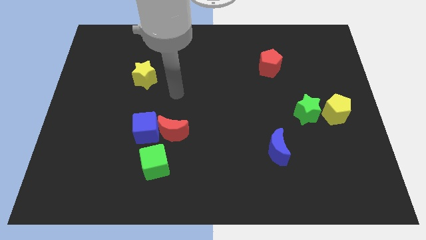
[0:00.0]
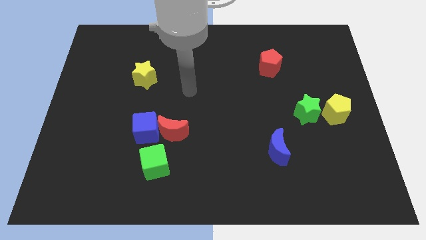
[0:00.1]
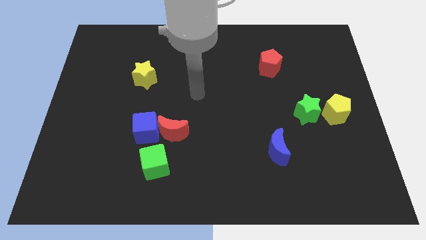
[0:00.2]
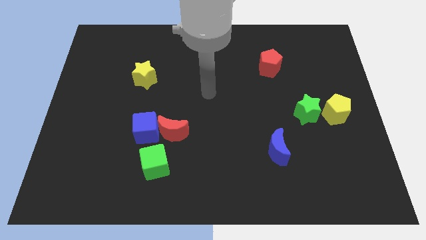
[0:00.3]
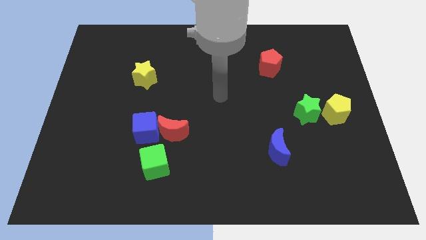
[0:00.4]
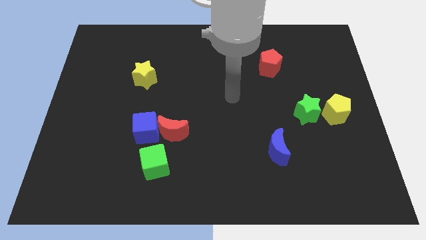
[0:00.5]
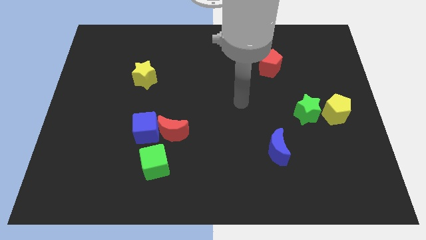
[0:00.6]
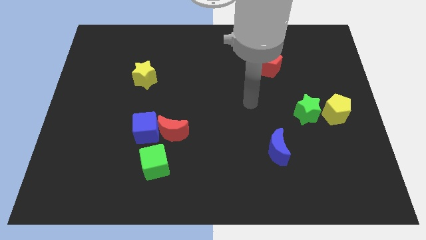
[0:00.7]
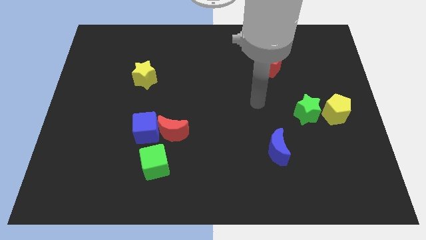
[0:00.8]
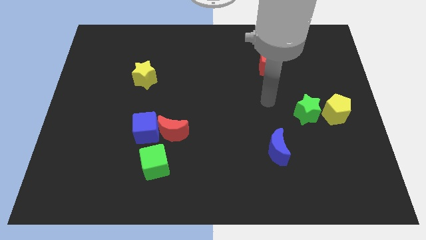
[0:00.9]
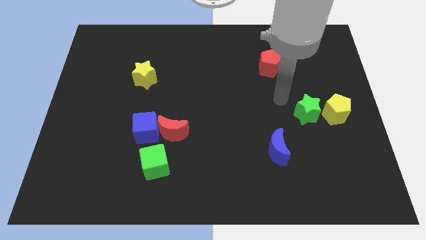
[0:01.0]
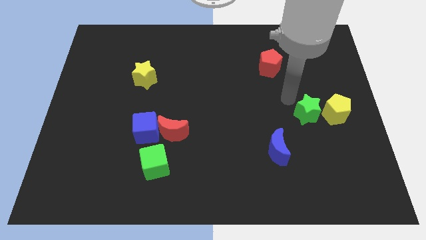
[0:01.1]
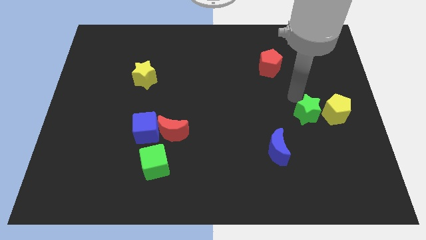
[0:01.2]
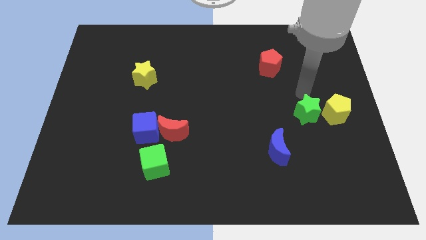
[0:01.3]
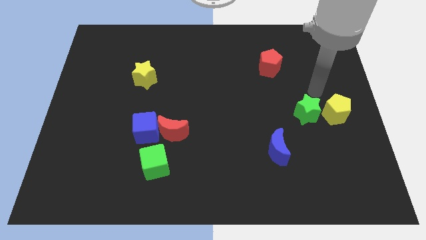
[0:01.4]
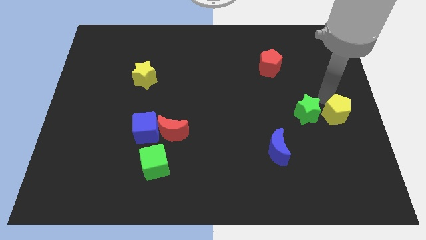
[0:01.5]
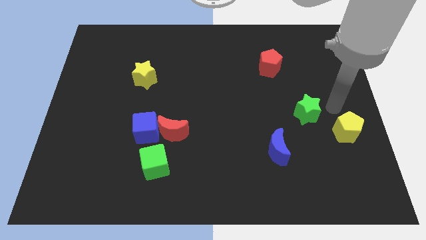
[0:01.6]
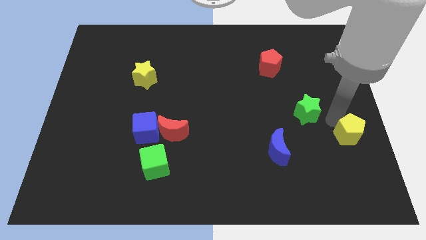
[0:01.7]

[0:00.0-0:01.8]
move the green star away from the yellow pentagon

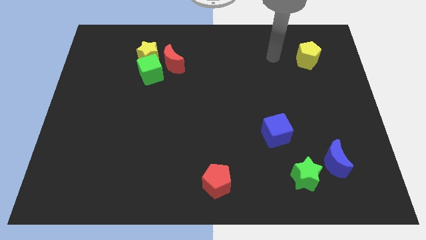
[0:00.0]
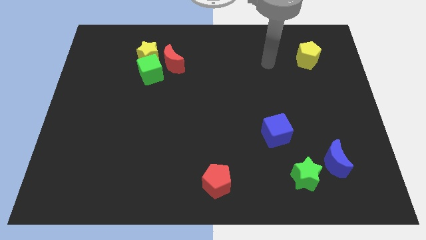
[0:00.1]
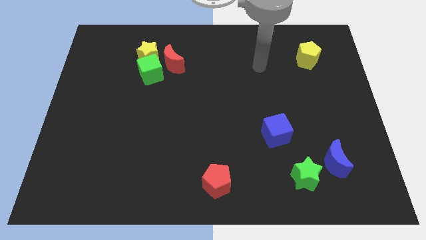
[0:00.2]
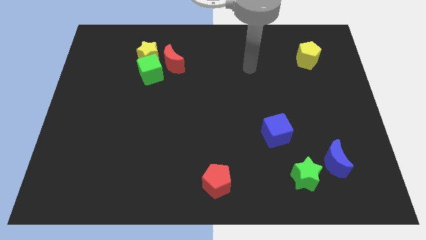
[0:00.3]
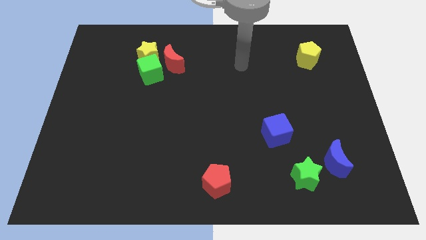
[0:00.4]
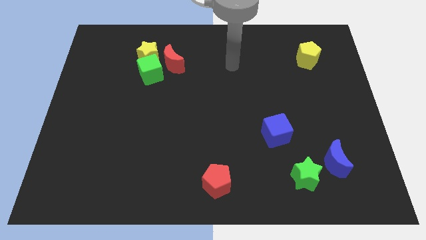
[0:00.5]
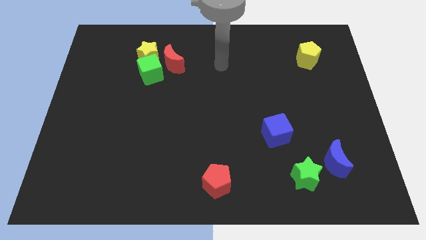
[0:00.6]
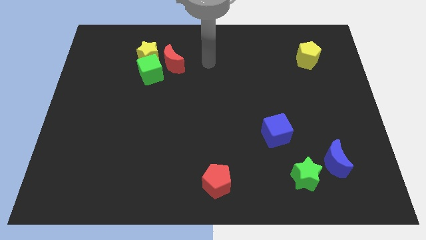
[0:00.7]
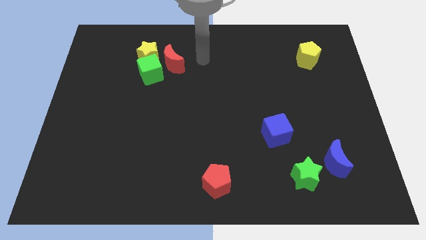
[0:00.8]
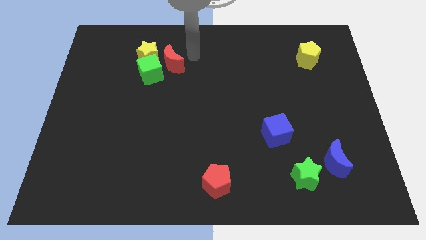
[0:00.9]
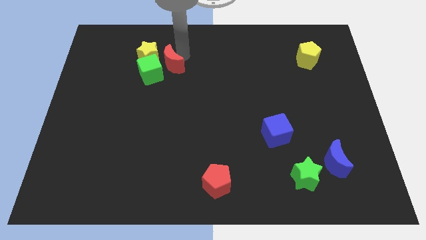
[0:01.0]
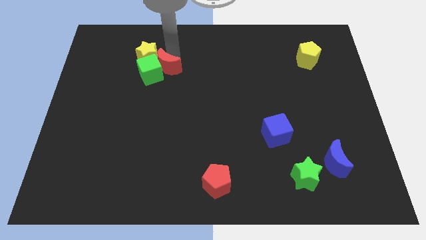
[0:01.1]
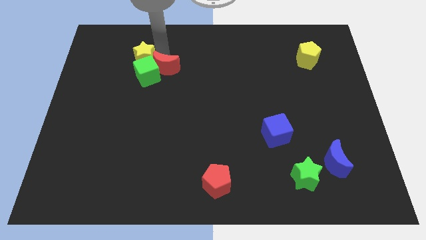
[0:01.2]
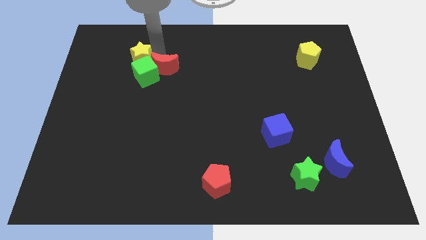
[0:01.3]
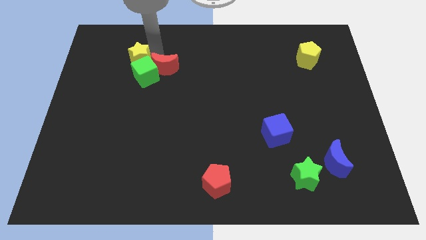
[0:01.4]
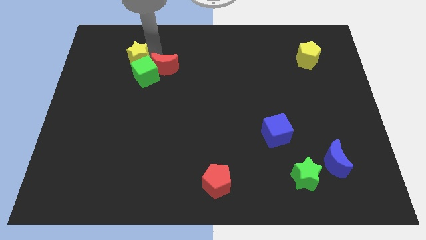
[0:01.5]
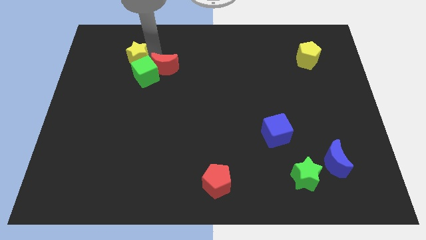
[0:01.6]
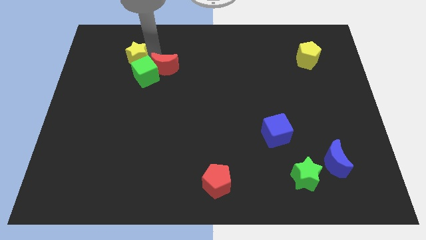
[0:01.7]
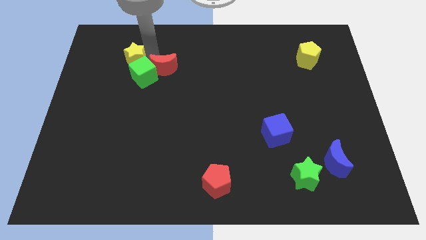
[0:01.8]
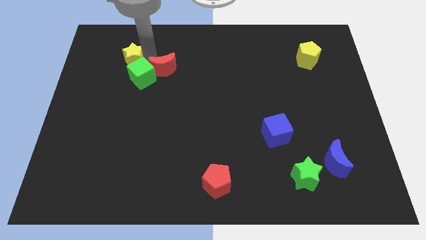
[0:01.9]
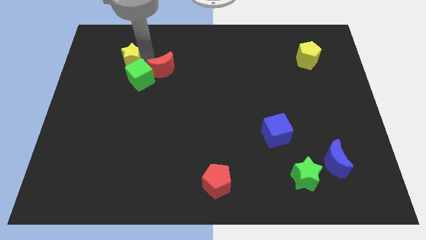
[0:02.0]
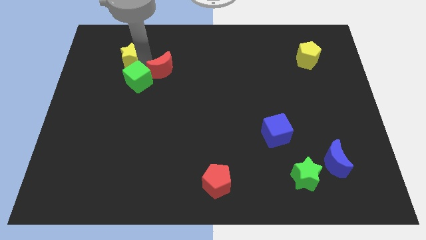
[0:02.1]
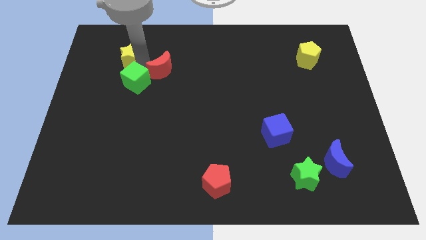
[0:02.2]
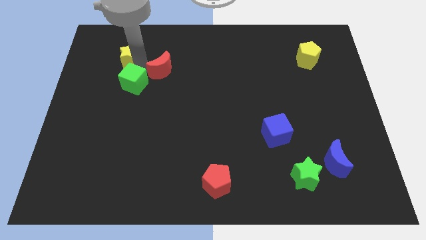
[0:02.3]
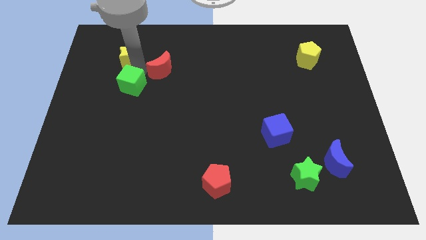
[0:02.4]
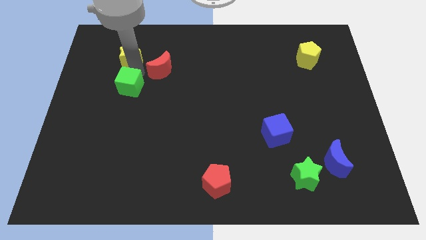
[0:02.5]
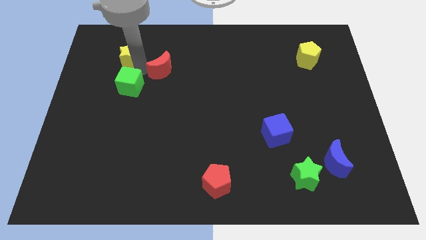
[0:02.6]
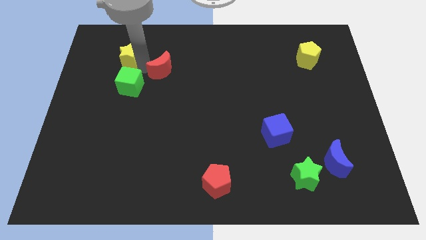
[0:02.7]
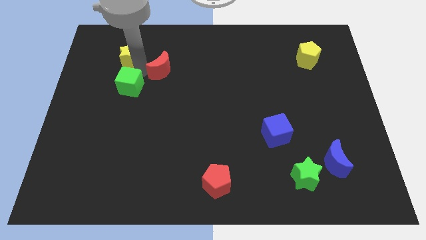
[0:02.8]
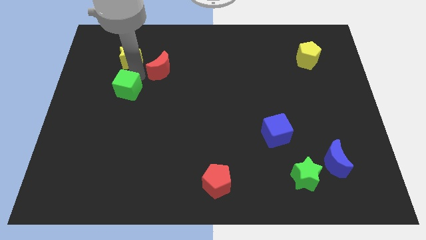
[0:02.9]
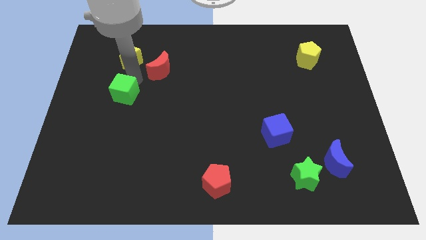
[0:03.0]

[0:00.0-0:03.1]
move the green cube away from the yellow star and red moon

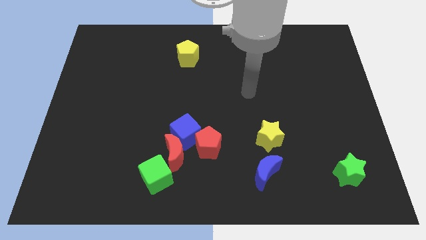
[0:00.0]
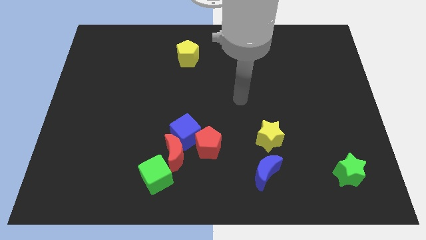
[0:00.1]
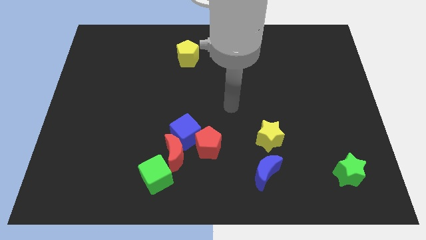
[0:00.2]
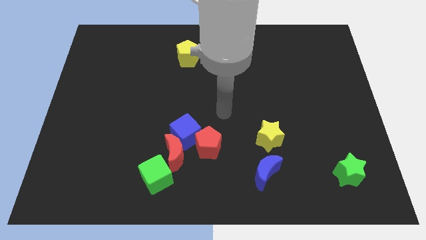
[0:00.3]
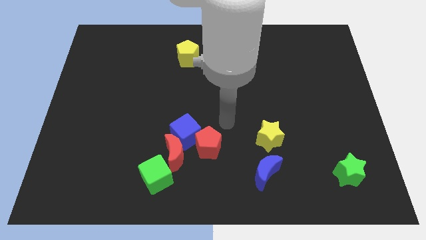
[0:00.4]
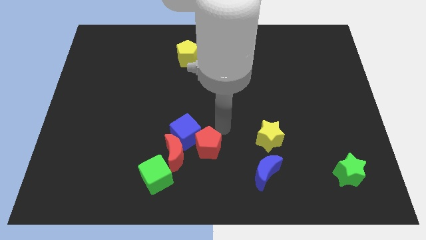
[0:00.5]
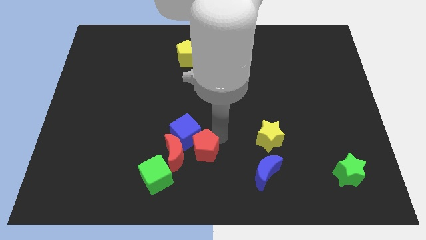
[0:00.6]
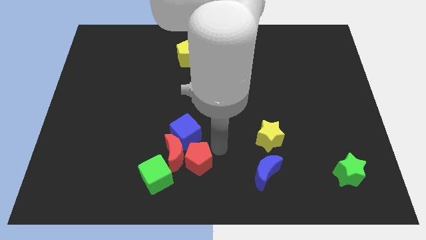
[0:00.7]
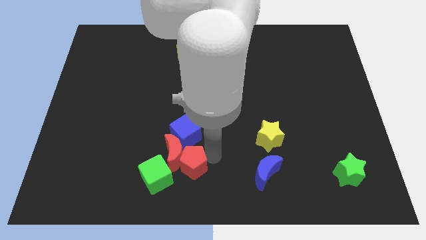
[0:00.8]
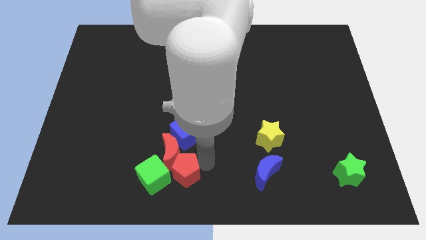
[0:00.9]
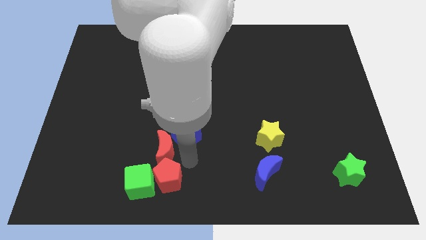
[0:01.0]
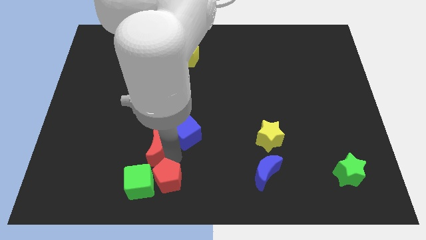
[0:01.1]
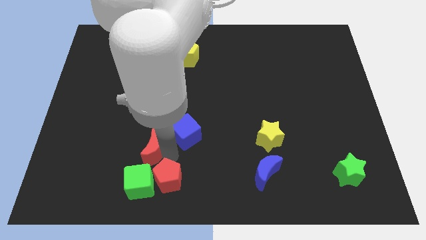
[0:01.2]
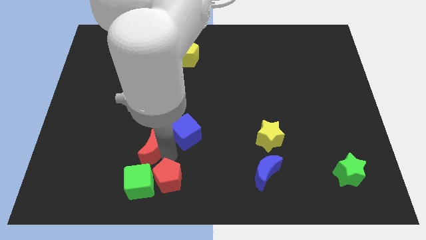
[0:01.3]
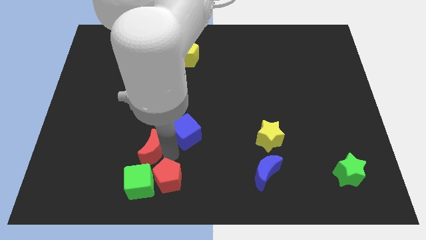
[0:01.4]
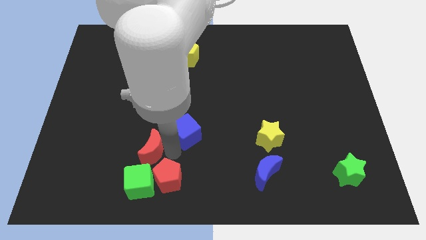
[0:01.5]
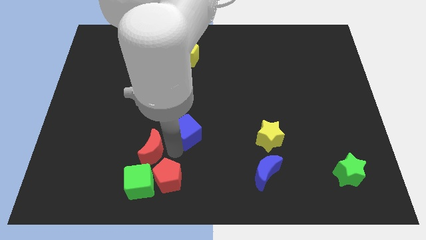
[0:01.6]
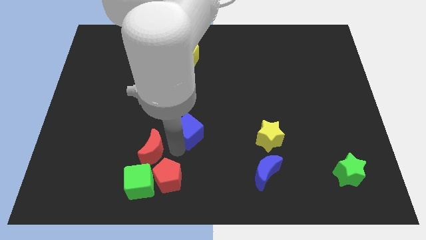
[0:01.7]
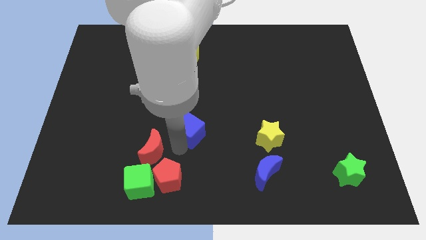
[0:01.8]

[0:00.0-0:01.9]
pull the blue cube apart from the red moon and red pentagon

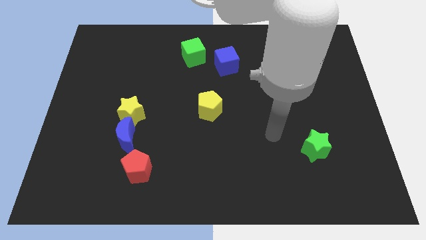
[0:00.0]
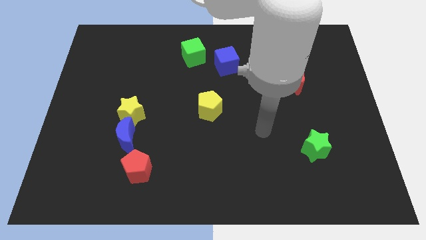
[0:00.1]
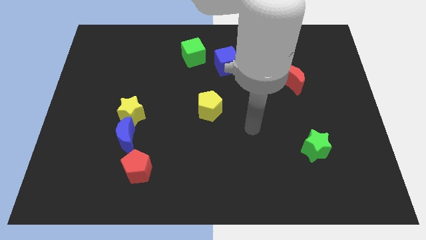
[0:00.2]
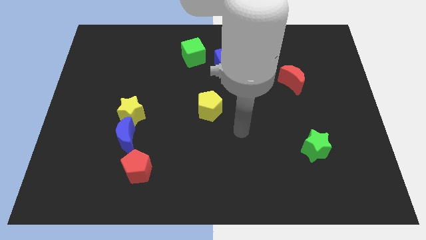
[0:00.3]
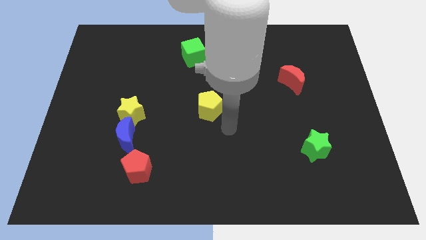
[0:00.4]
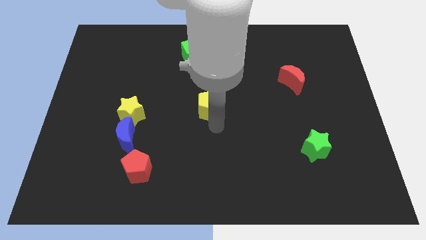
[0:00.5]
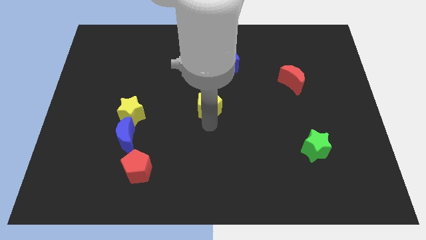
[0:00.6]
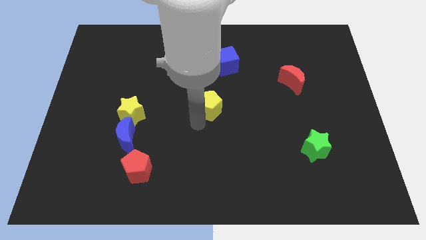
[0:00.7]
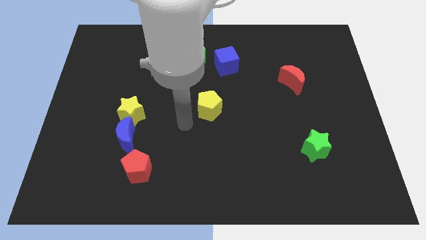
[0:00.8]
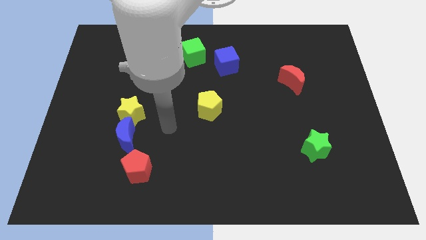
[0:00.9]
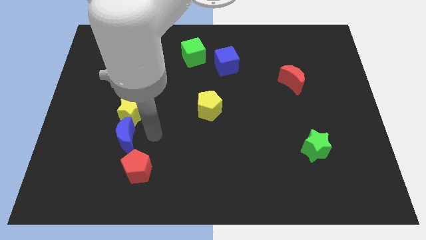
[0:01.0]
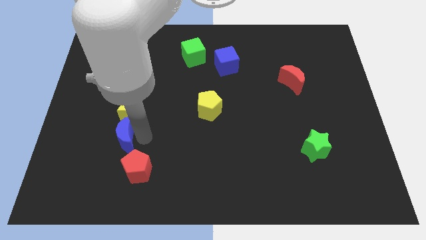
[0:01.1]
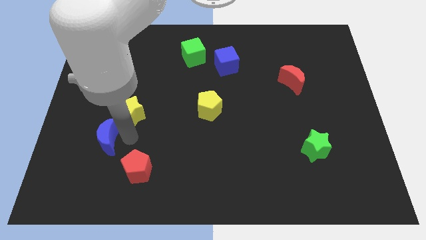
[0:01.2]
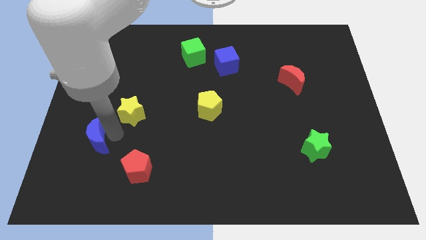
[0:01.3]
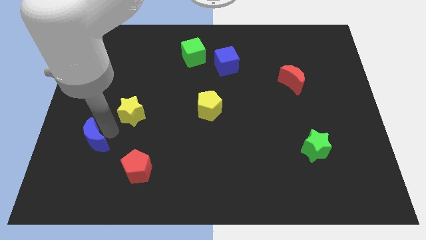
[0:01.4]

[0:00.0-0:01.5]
separate the yellow star from the blue moon

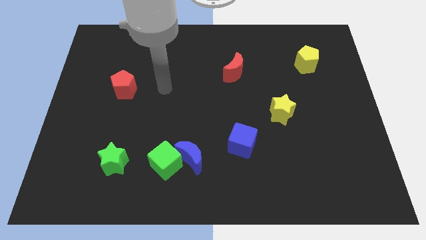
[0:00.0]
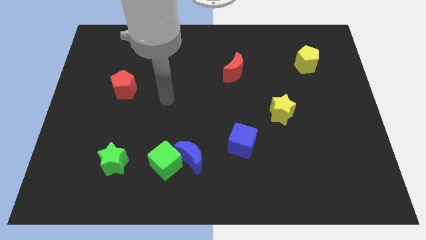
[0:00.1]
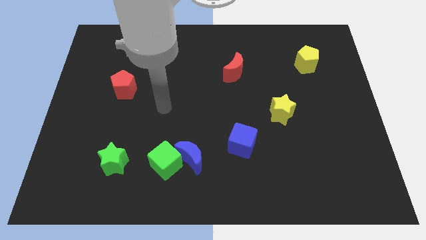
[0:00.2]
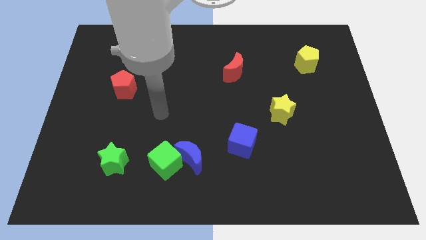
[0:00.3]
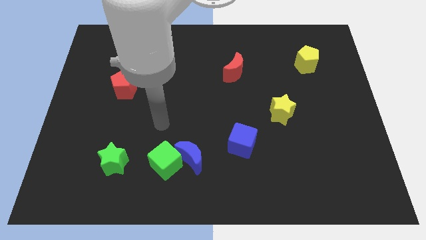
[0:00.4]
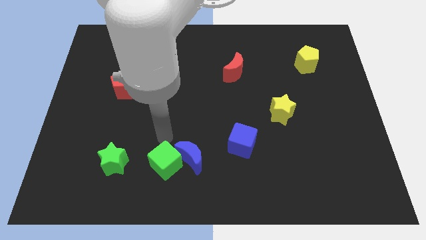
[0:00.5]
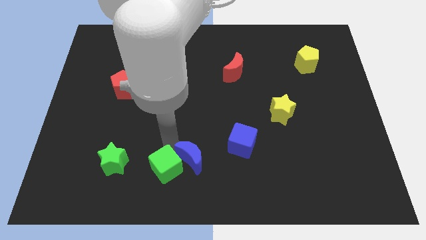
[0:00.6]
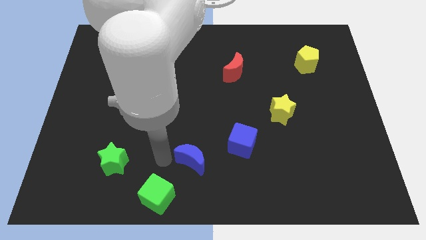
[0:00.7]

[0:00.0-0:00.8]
move the blue moon away from the green cube

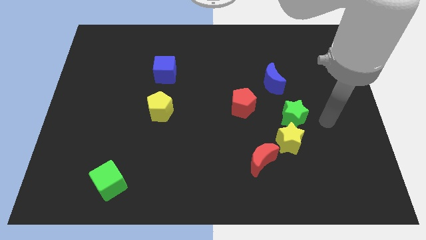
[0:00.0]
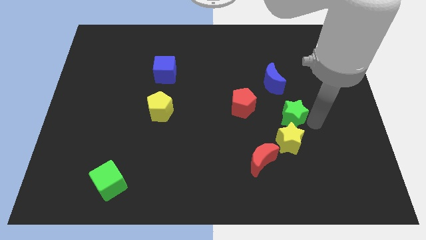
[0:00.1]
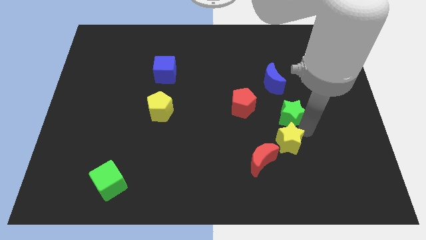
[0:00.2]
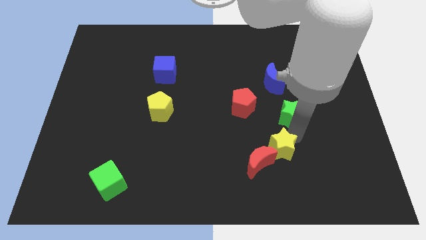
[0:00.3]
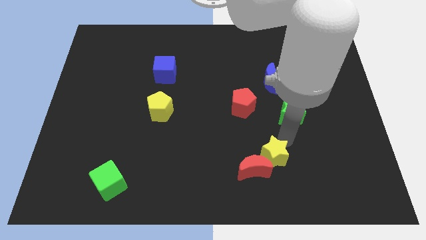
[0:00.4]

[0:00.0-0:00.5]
separate the green star from the yellow star
